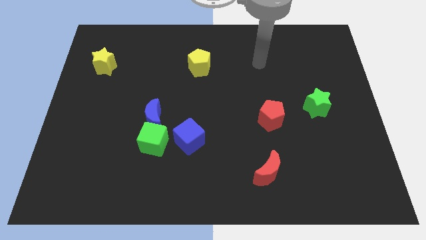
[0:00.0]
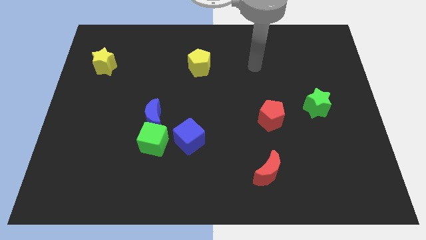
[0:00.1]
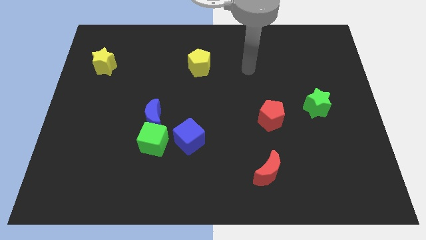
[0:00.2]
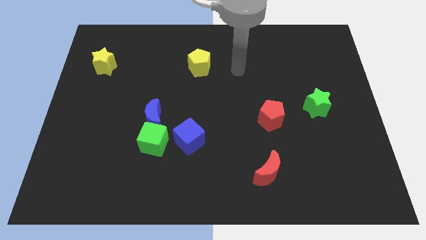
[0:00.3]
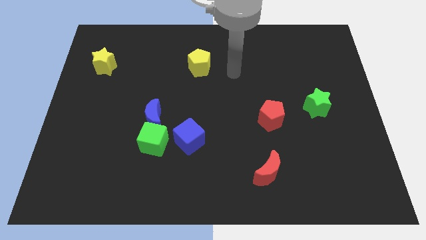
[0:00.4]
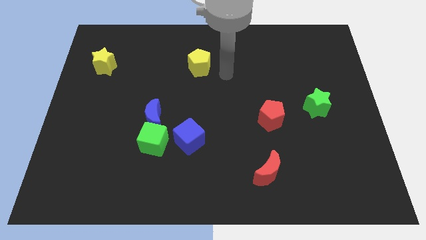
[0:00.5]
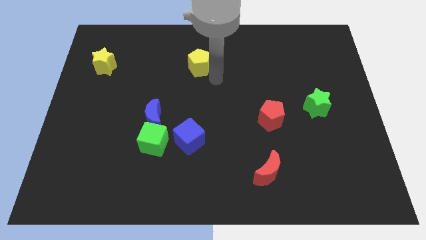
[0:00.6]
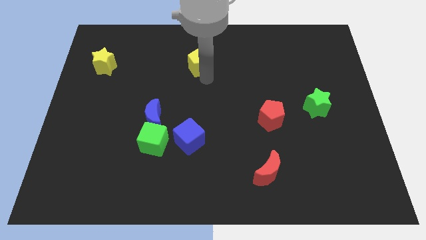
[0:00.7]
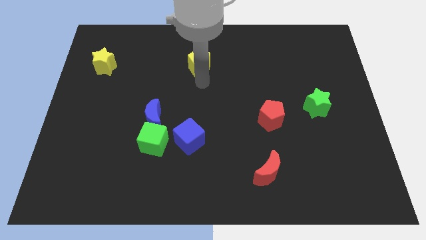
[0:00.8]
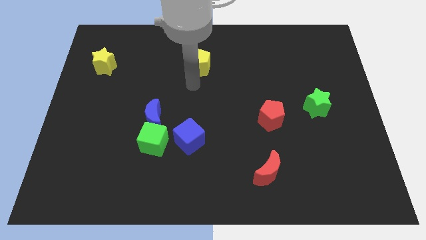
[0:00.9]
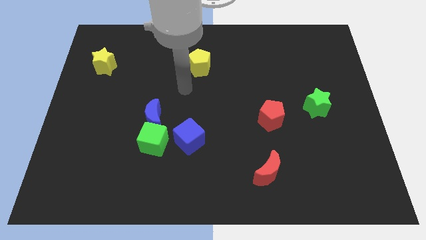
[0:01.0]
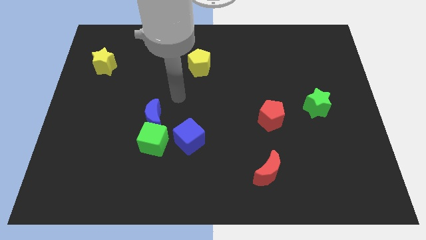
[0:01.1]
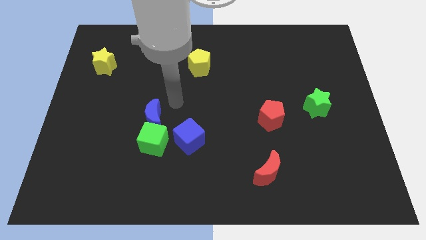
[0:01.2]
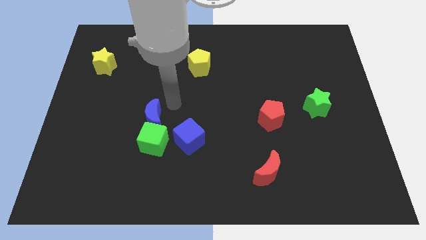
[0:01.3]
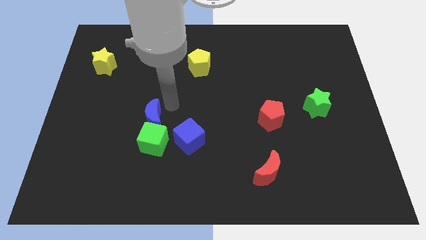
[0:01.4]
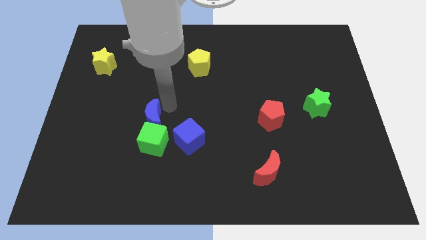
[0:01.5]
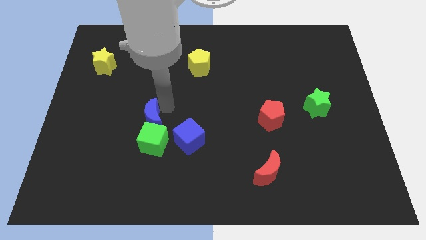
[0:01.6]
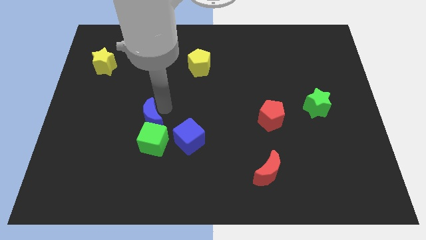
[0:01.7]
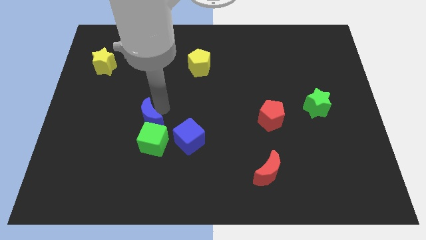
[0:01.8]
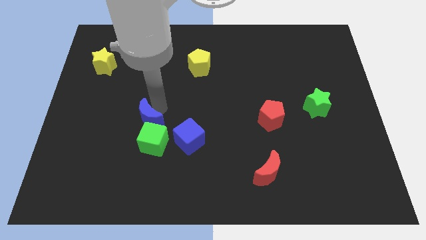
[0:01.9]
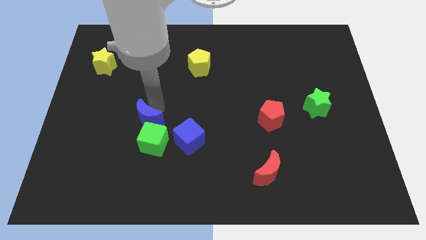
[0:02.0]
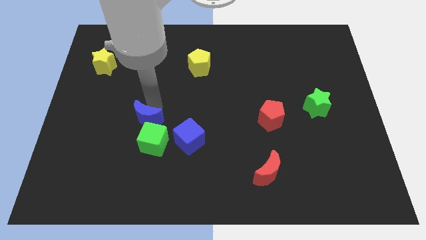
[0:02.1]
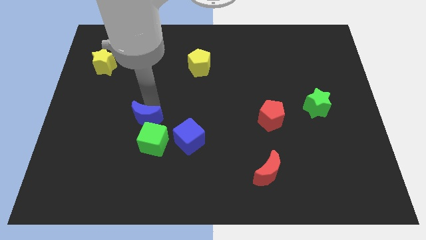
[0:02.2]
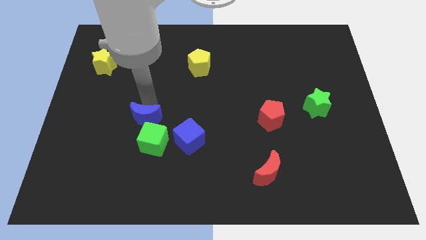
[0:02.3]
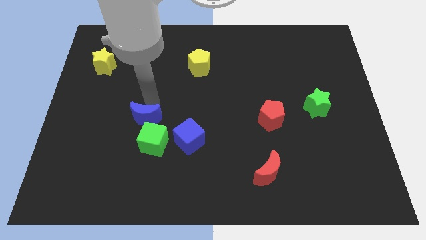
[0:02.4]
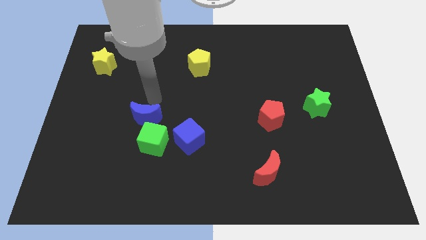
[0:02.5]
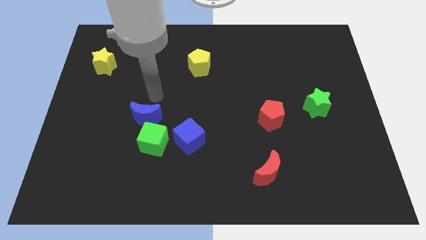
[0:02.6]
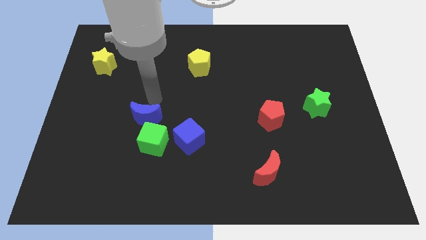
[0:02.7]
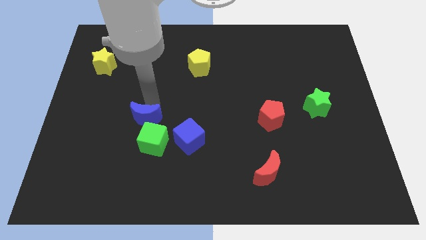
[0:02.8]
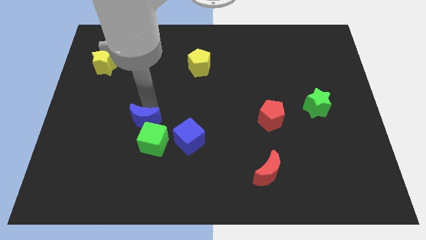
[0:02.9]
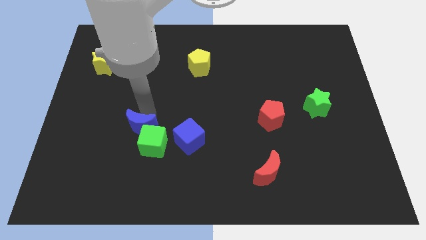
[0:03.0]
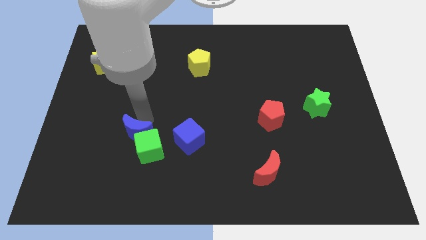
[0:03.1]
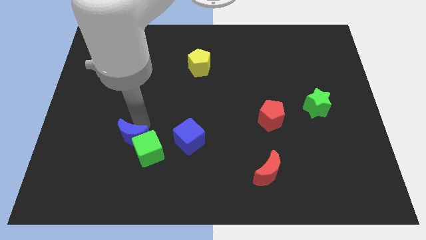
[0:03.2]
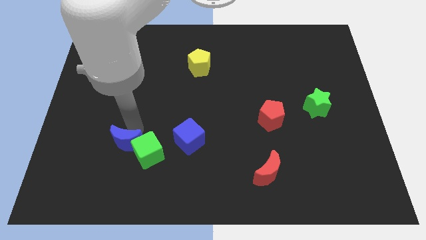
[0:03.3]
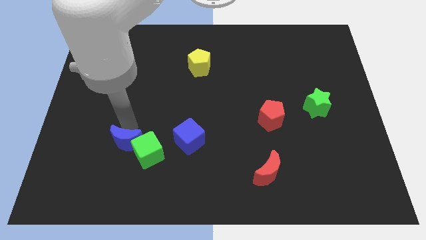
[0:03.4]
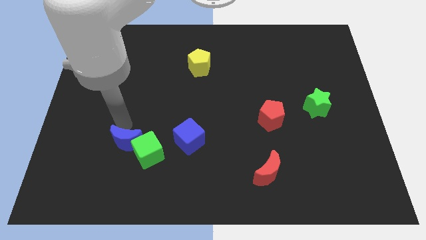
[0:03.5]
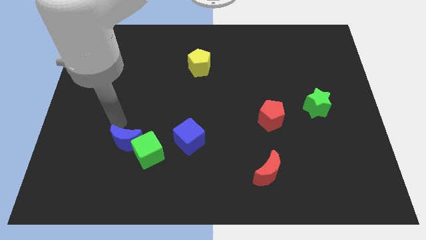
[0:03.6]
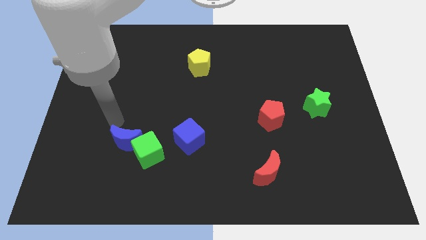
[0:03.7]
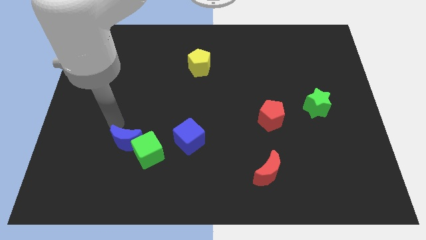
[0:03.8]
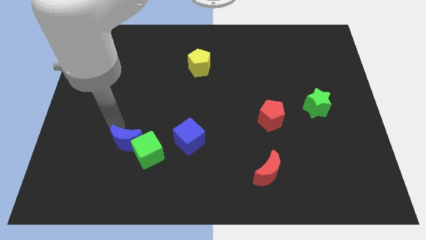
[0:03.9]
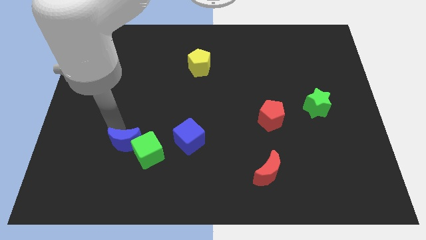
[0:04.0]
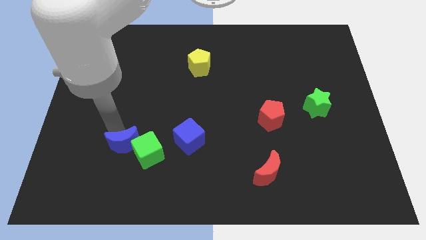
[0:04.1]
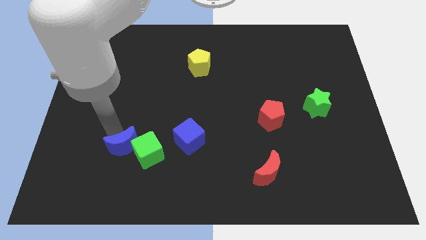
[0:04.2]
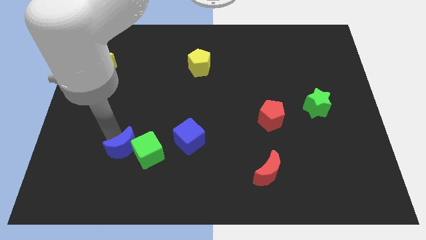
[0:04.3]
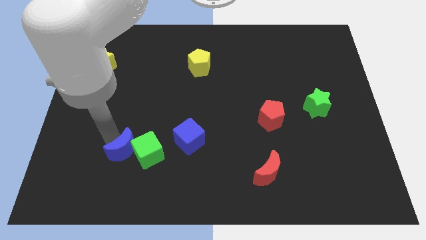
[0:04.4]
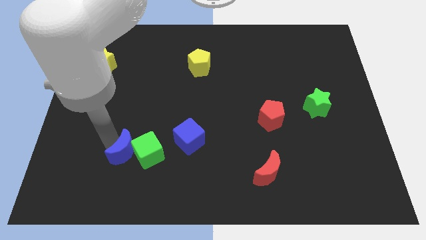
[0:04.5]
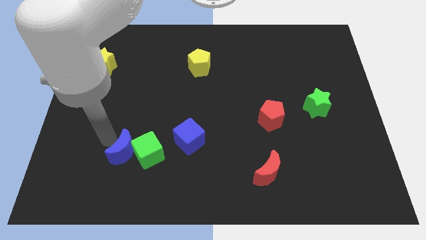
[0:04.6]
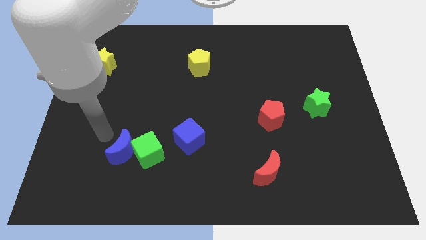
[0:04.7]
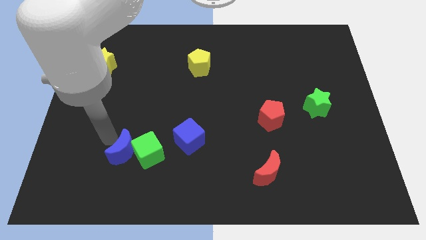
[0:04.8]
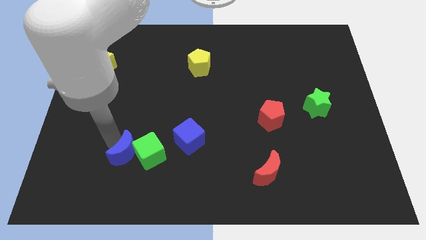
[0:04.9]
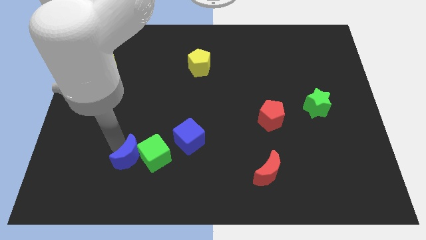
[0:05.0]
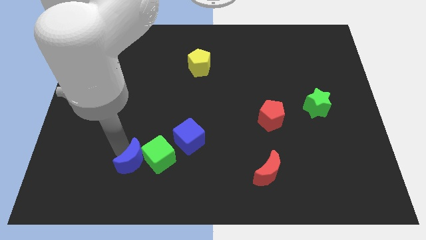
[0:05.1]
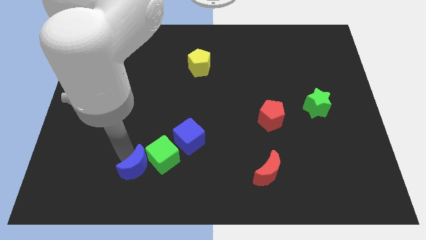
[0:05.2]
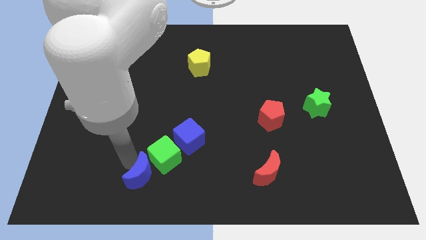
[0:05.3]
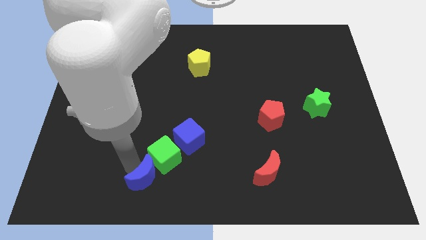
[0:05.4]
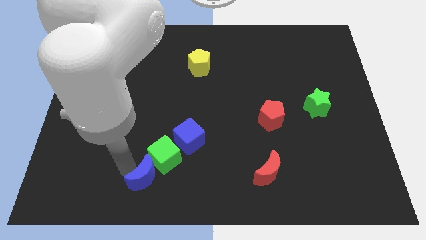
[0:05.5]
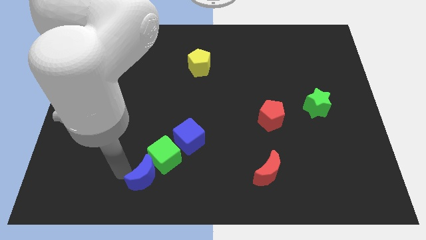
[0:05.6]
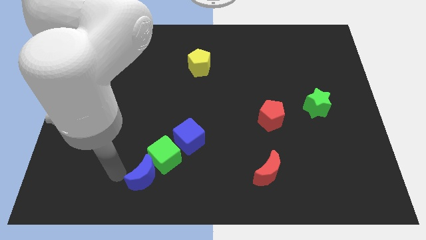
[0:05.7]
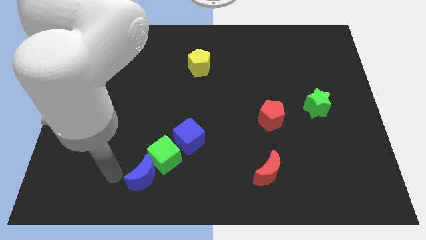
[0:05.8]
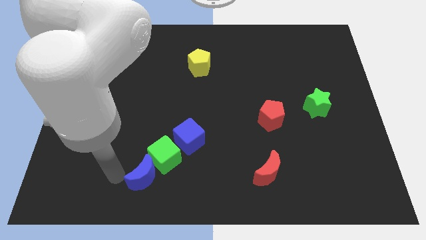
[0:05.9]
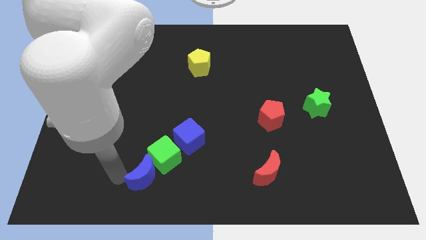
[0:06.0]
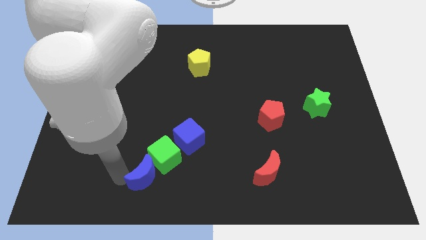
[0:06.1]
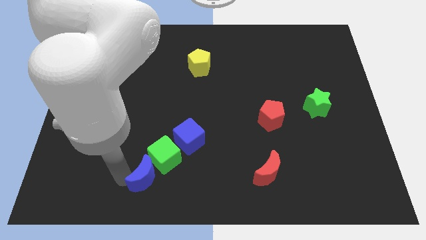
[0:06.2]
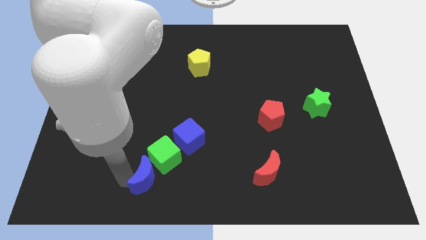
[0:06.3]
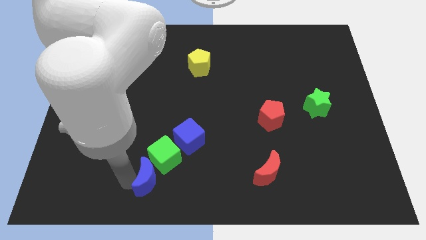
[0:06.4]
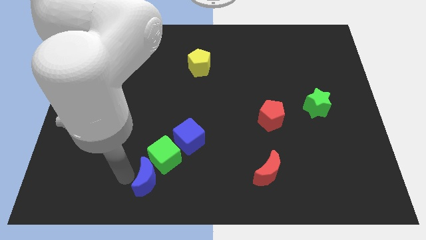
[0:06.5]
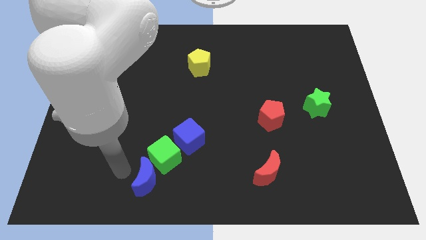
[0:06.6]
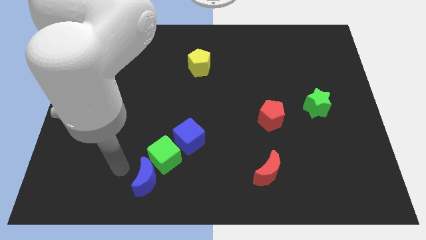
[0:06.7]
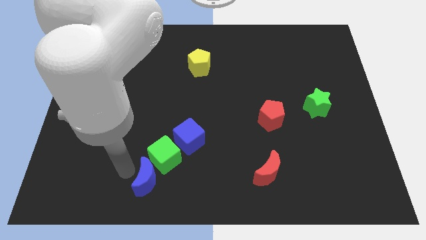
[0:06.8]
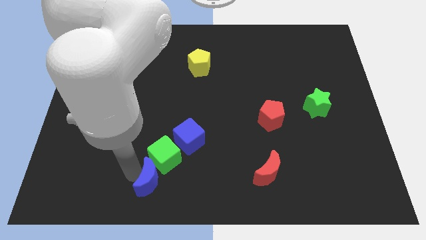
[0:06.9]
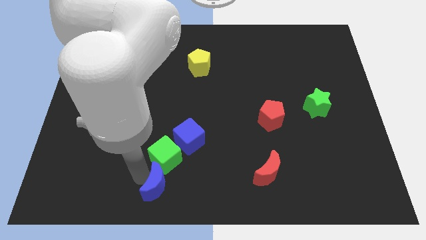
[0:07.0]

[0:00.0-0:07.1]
move the blue moon to the bottom side
